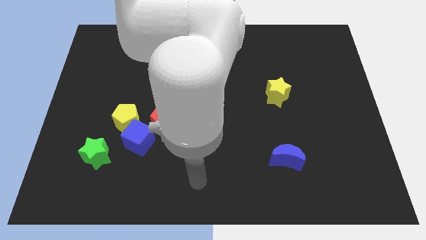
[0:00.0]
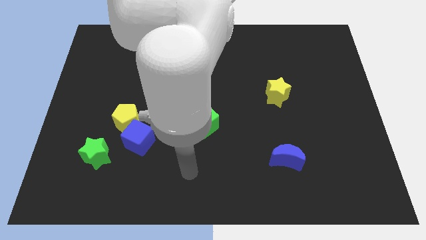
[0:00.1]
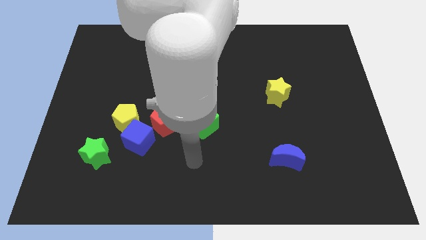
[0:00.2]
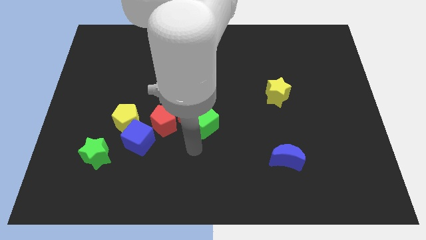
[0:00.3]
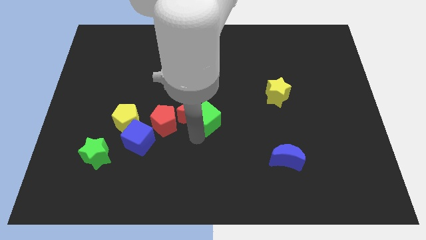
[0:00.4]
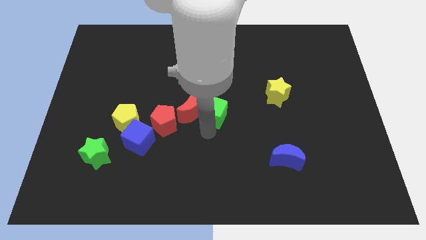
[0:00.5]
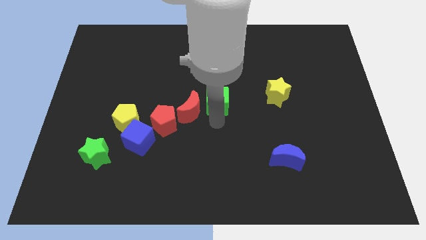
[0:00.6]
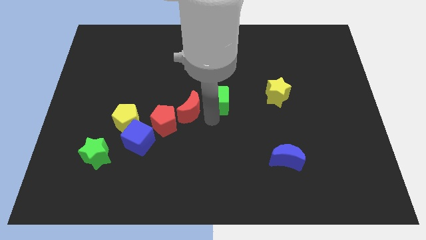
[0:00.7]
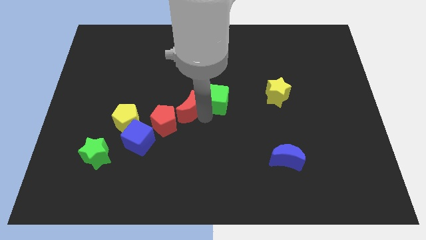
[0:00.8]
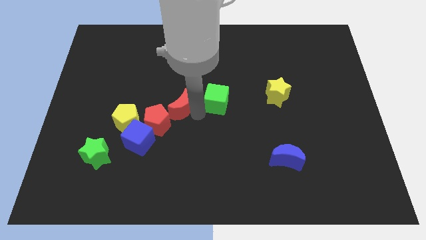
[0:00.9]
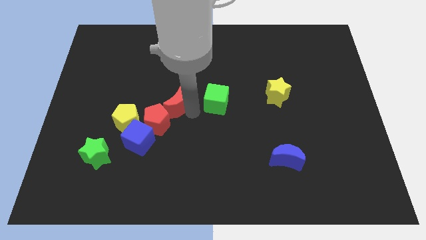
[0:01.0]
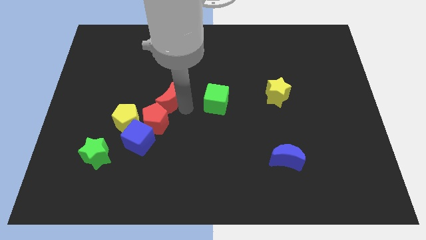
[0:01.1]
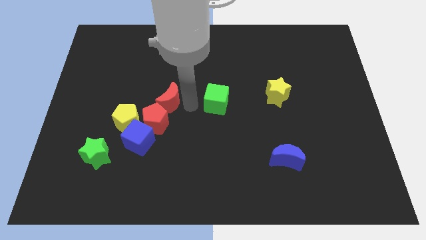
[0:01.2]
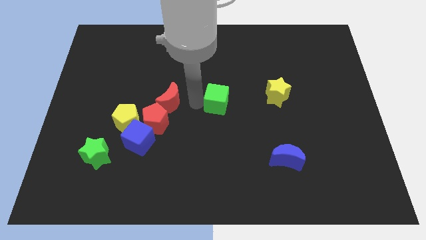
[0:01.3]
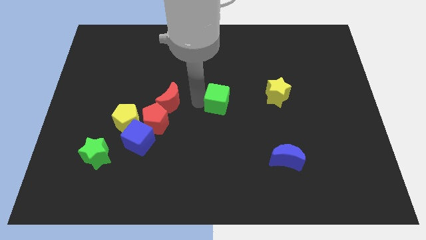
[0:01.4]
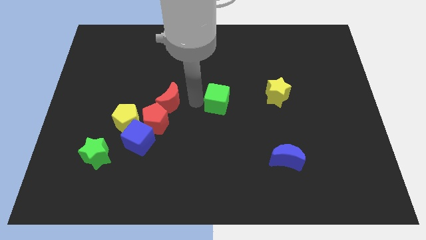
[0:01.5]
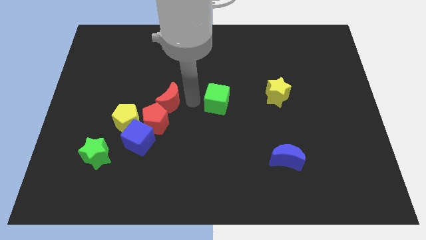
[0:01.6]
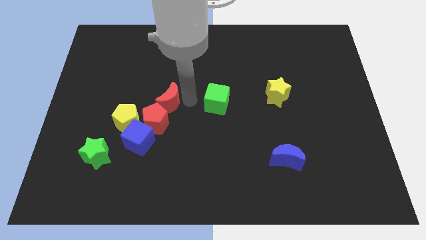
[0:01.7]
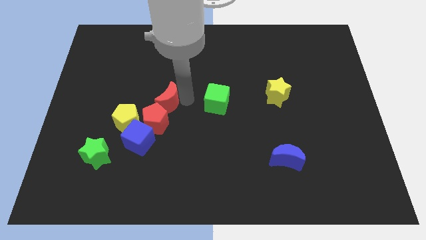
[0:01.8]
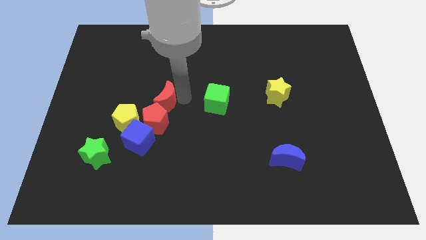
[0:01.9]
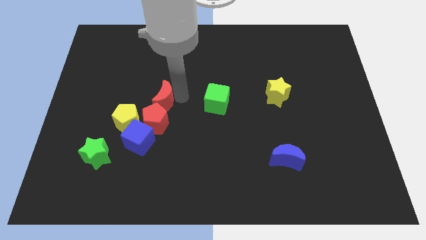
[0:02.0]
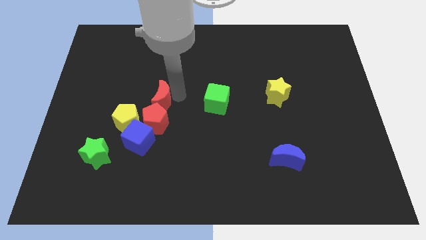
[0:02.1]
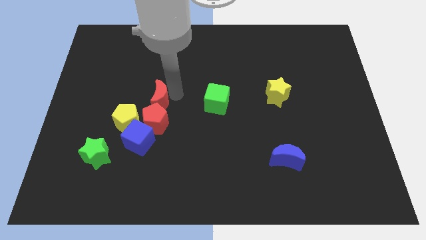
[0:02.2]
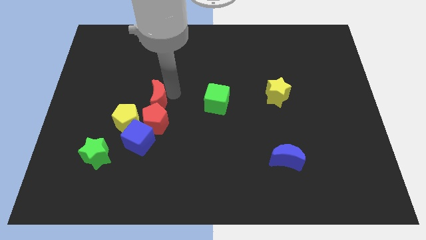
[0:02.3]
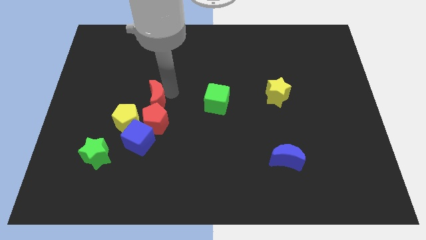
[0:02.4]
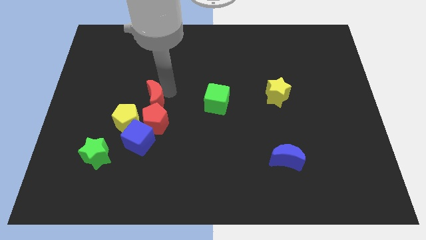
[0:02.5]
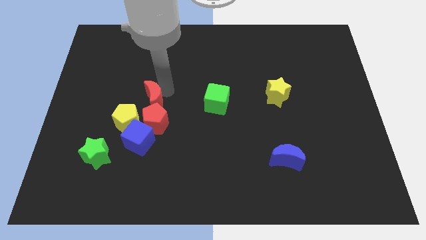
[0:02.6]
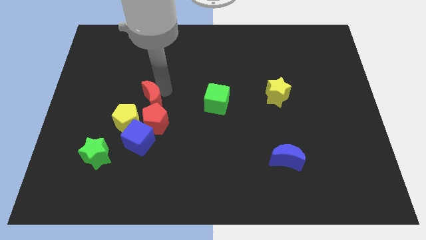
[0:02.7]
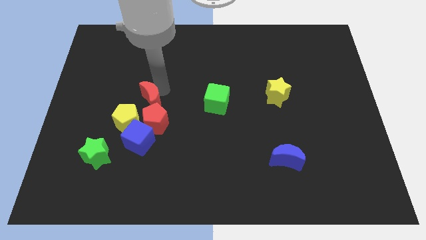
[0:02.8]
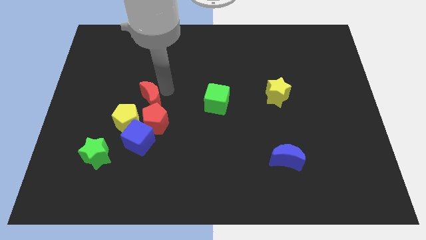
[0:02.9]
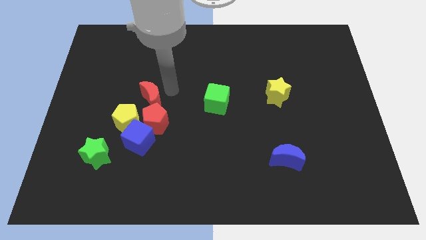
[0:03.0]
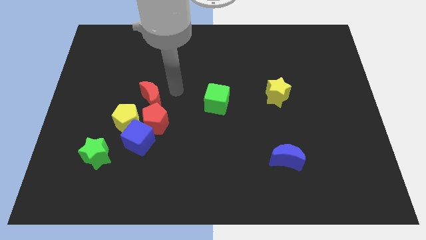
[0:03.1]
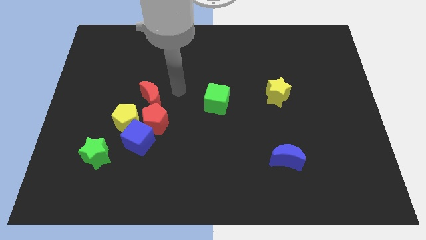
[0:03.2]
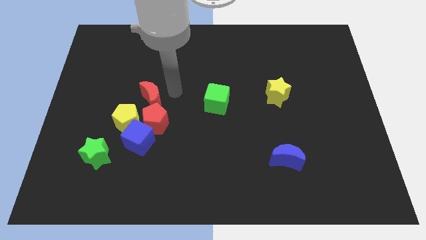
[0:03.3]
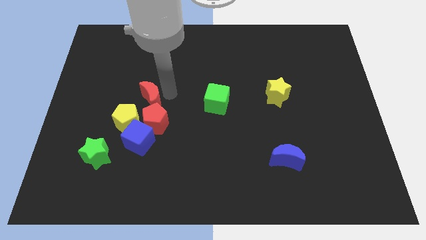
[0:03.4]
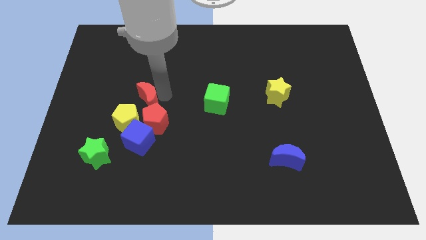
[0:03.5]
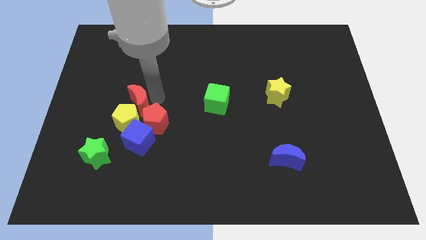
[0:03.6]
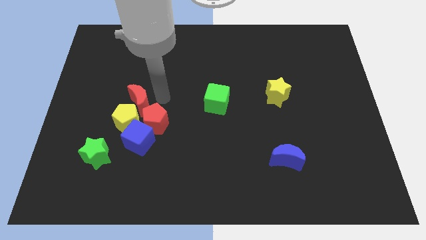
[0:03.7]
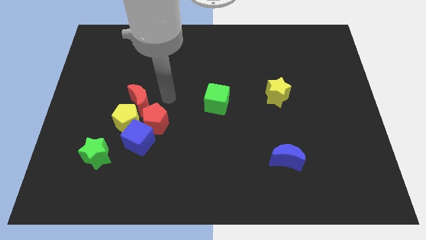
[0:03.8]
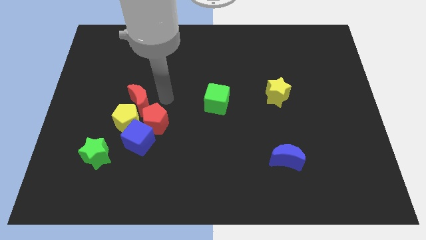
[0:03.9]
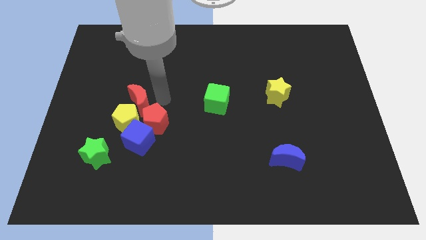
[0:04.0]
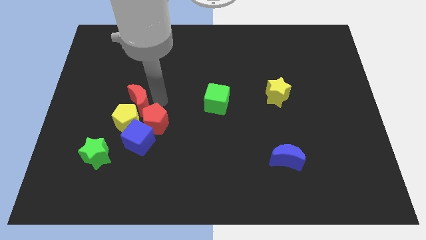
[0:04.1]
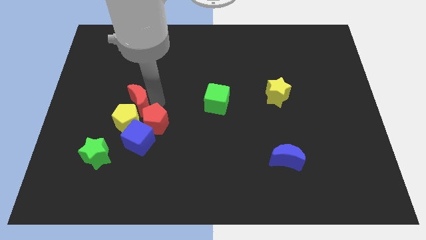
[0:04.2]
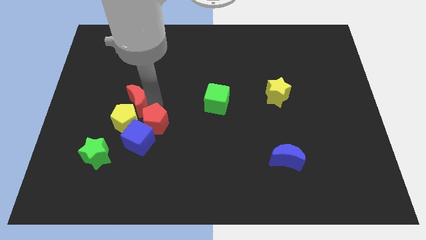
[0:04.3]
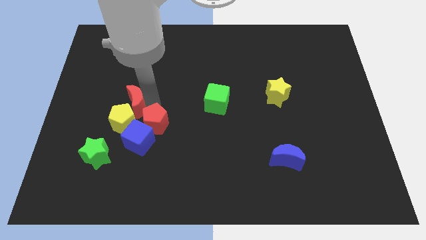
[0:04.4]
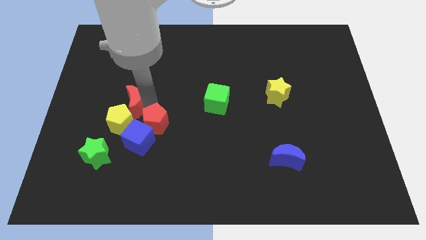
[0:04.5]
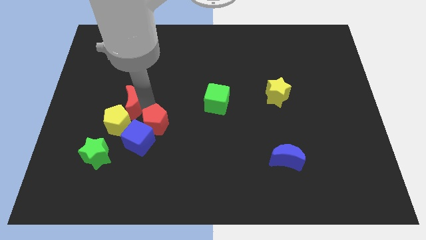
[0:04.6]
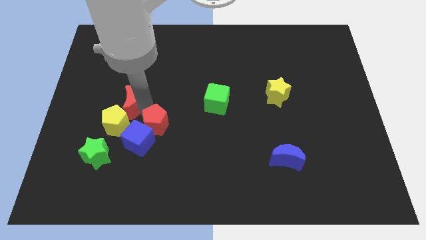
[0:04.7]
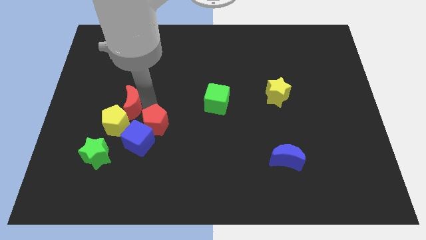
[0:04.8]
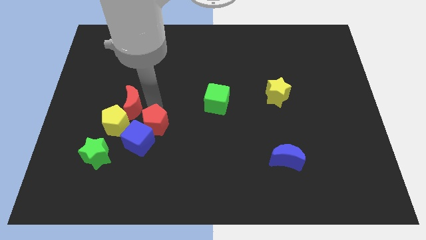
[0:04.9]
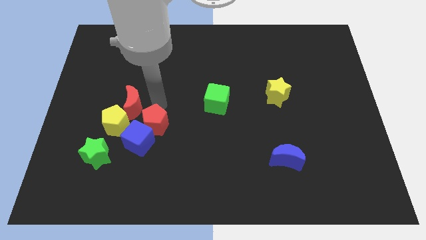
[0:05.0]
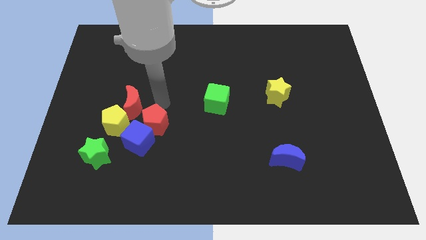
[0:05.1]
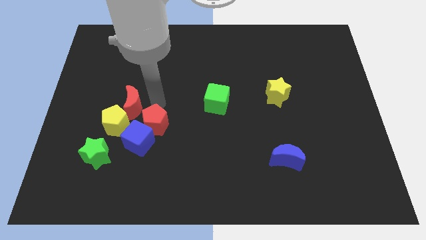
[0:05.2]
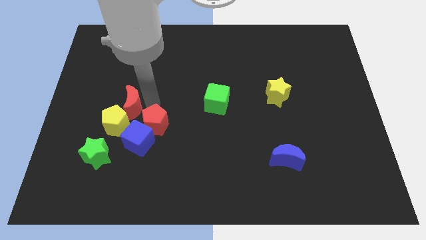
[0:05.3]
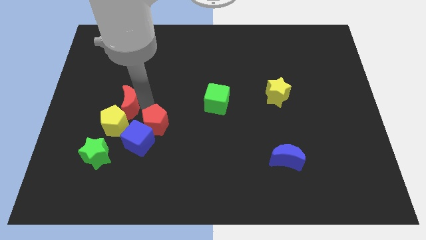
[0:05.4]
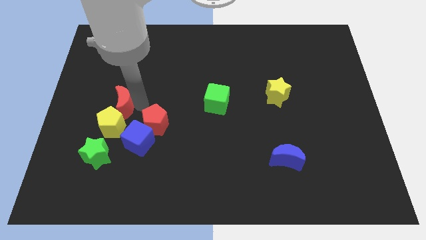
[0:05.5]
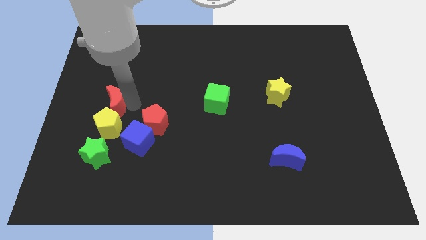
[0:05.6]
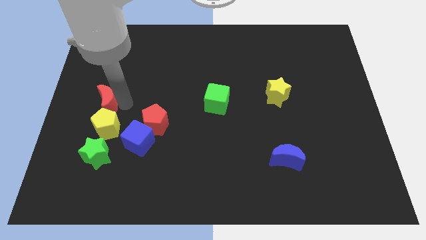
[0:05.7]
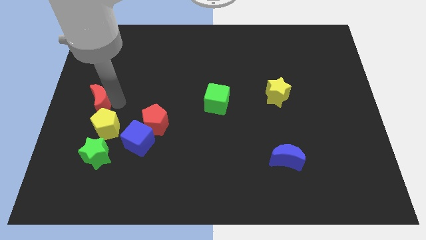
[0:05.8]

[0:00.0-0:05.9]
put the red moon to the center left

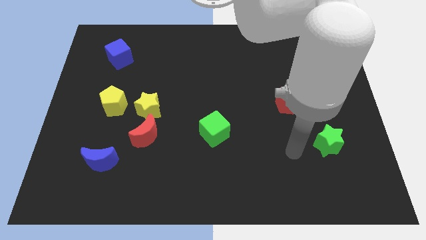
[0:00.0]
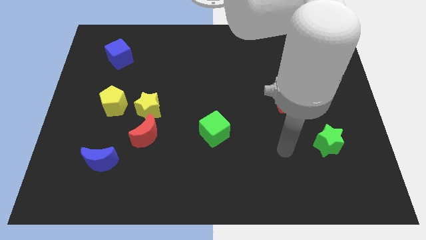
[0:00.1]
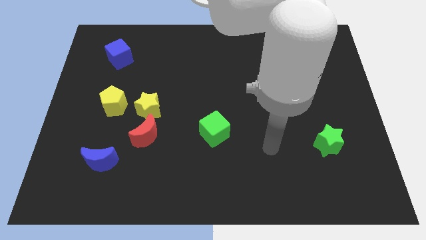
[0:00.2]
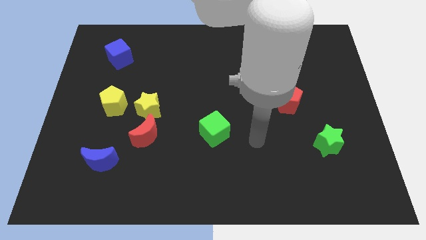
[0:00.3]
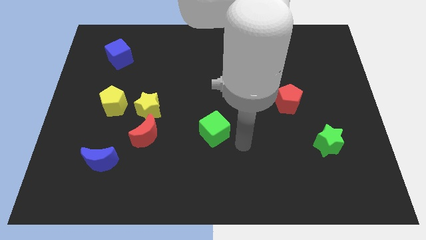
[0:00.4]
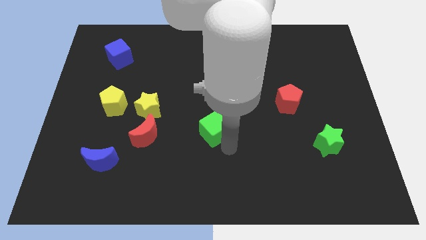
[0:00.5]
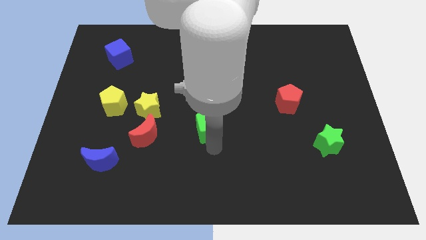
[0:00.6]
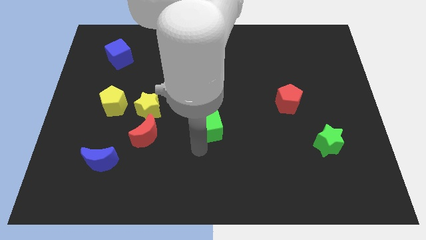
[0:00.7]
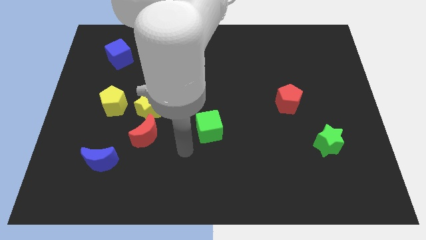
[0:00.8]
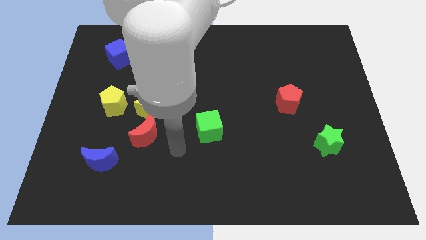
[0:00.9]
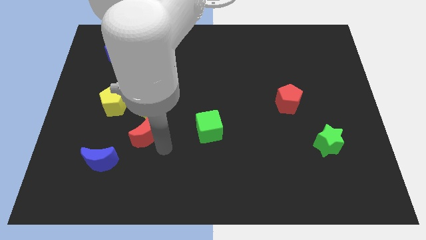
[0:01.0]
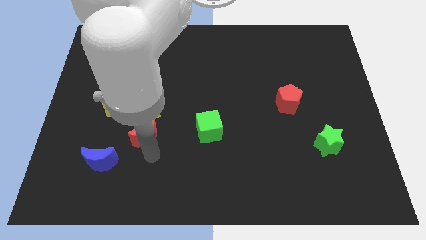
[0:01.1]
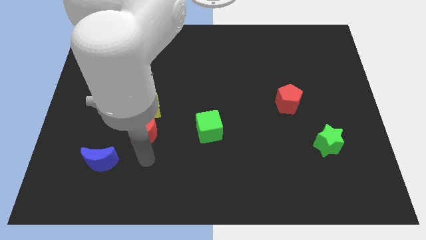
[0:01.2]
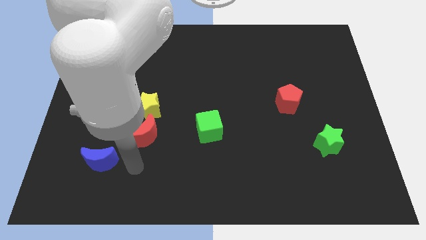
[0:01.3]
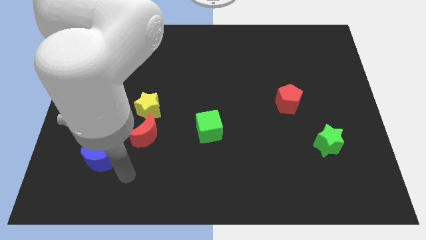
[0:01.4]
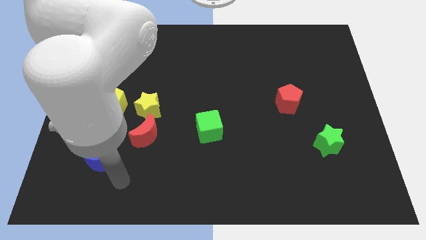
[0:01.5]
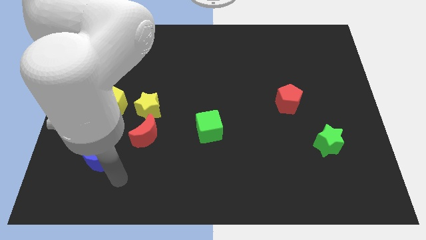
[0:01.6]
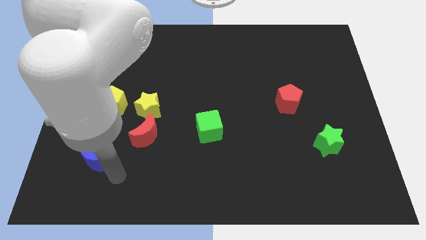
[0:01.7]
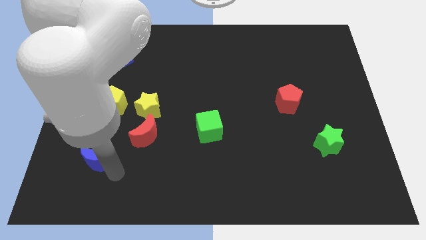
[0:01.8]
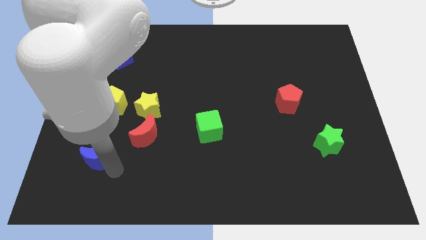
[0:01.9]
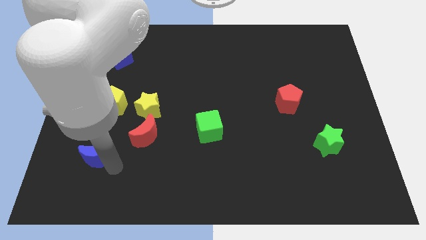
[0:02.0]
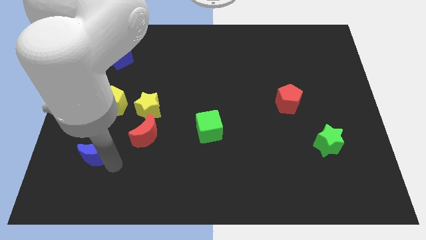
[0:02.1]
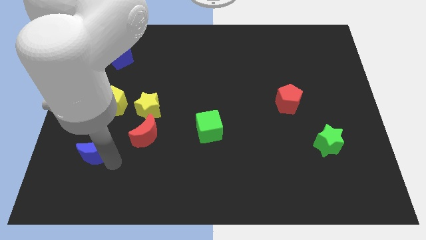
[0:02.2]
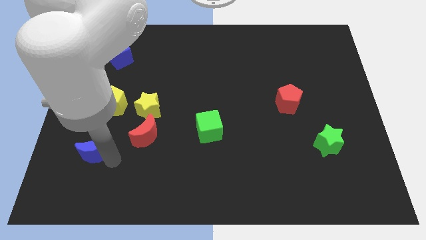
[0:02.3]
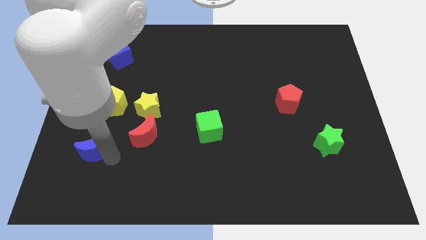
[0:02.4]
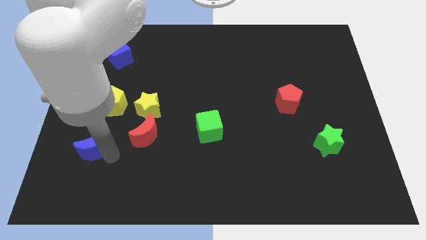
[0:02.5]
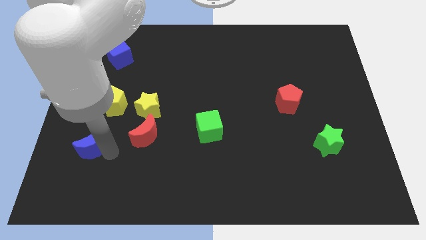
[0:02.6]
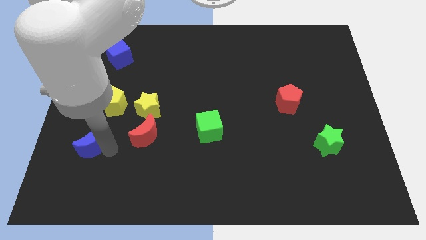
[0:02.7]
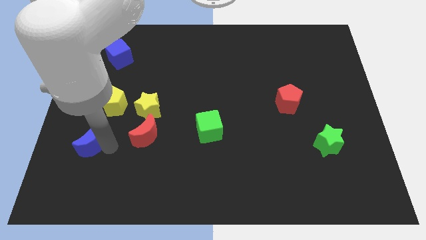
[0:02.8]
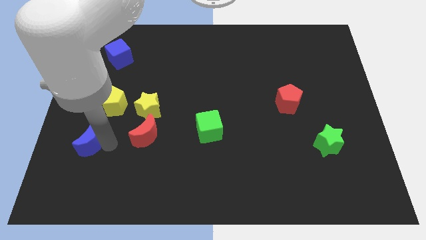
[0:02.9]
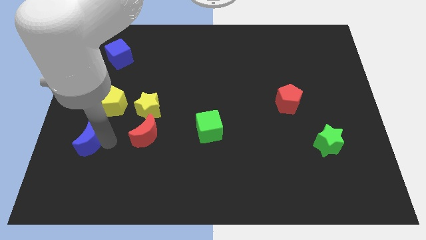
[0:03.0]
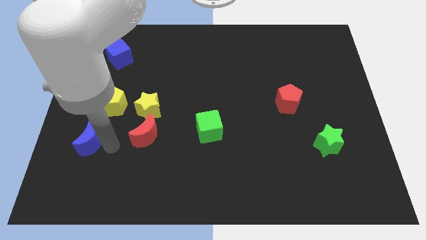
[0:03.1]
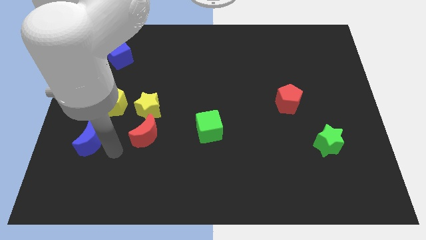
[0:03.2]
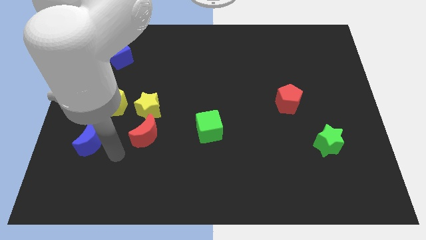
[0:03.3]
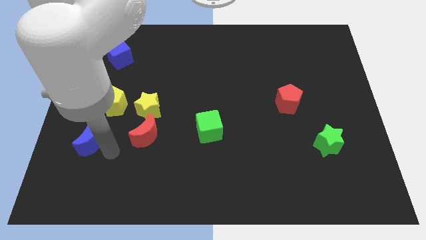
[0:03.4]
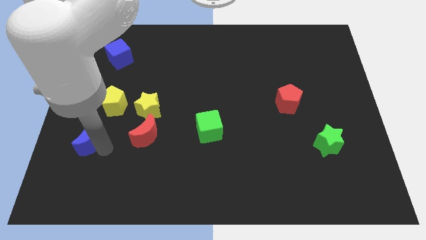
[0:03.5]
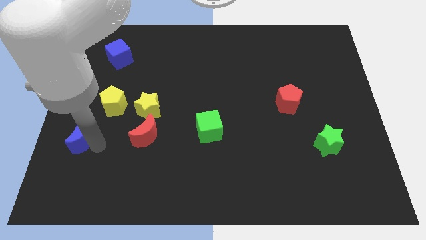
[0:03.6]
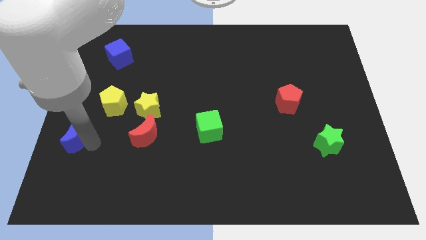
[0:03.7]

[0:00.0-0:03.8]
slide the blue moon to the left side of the board
